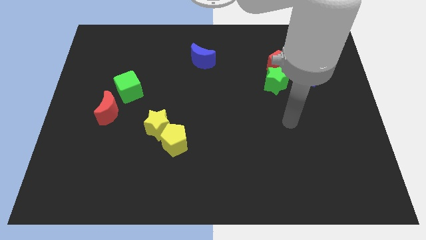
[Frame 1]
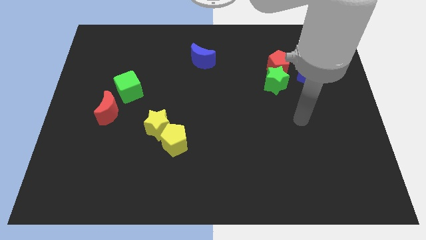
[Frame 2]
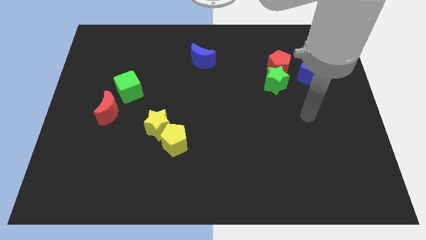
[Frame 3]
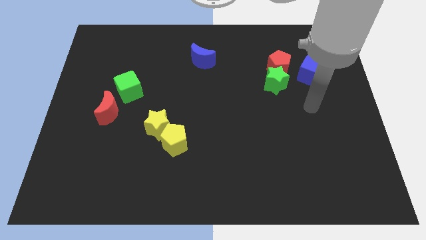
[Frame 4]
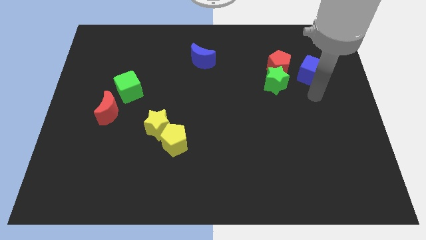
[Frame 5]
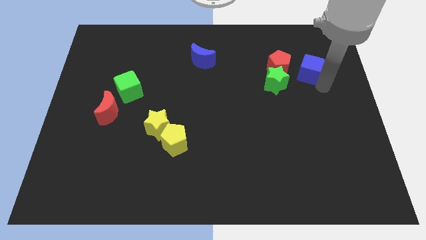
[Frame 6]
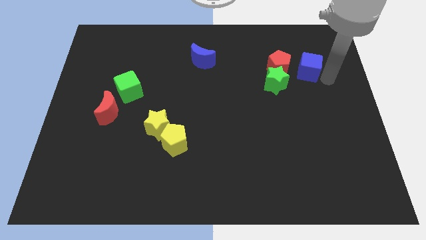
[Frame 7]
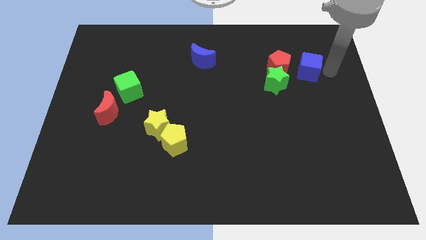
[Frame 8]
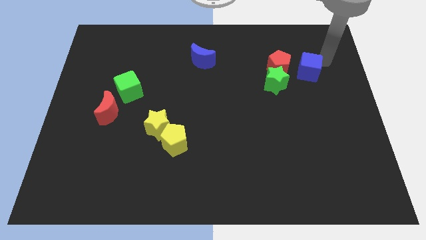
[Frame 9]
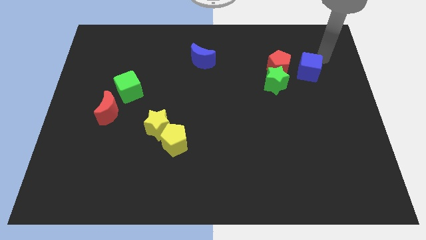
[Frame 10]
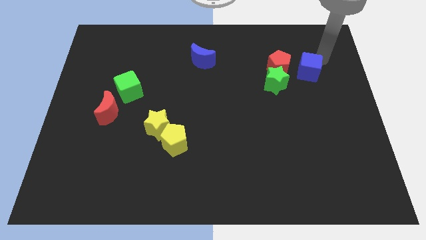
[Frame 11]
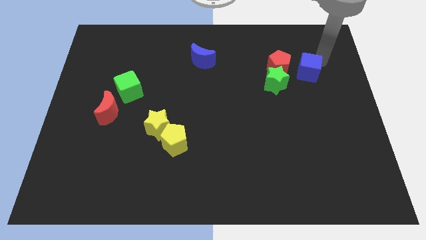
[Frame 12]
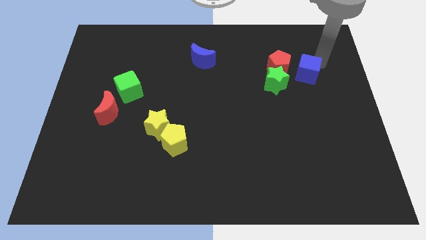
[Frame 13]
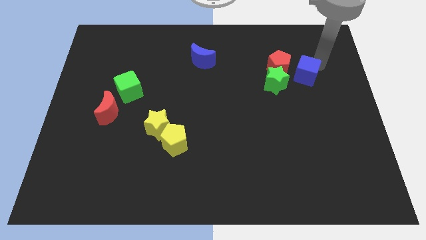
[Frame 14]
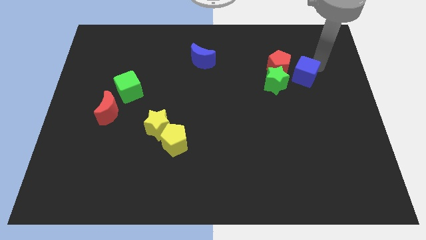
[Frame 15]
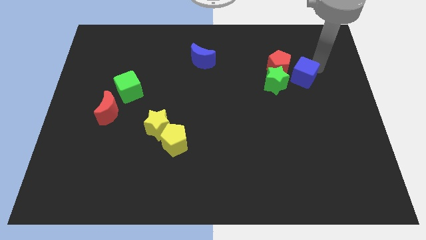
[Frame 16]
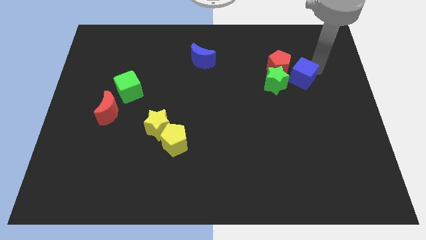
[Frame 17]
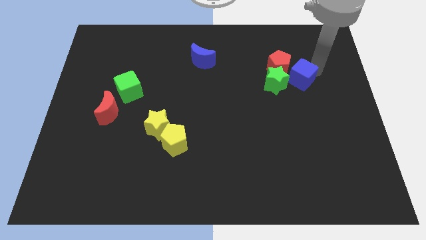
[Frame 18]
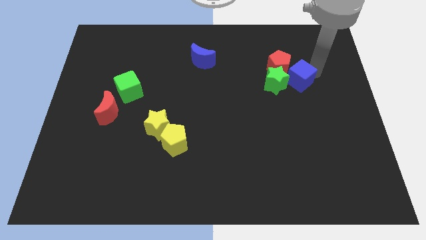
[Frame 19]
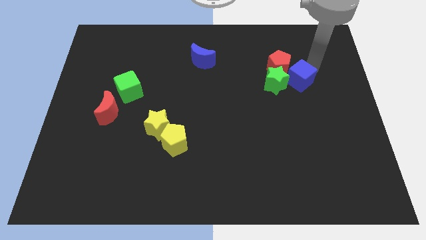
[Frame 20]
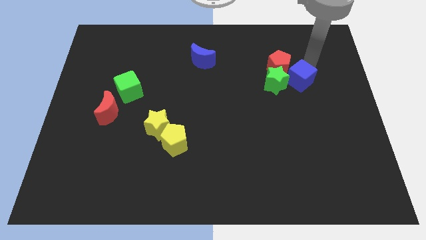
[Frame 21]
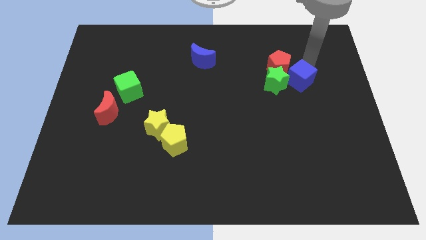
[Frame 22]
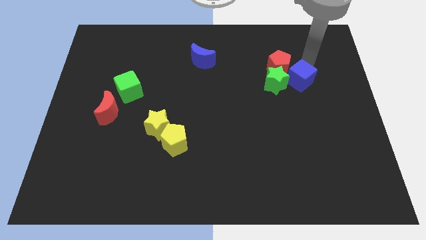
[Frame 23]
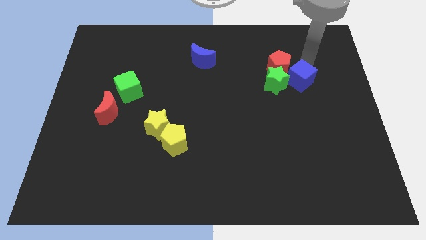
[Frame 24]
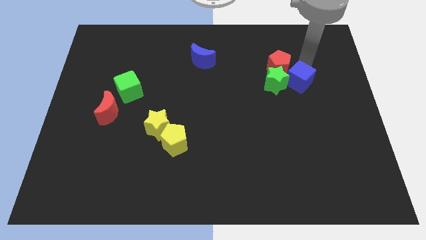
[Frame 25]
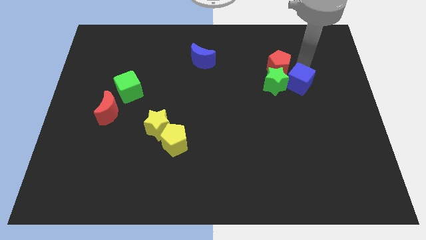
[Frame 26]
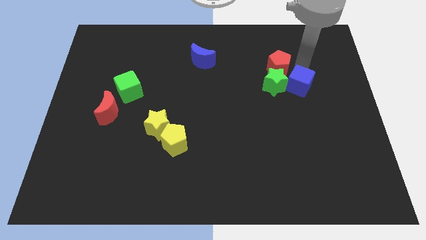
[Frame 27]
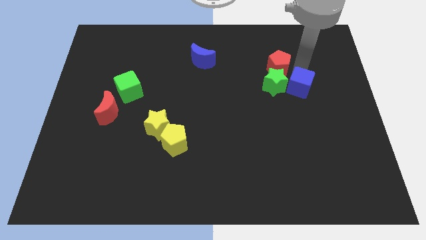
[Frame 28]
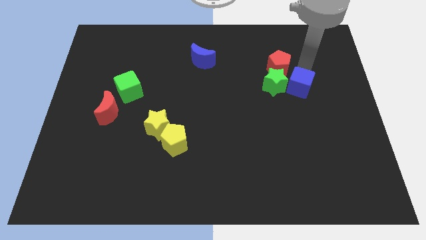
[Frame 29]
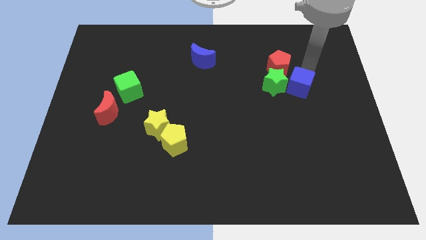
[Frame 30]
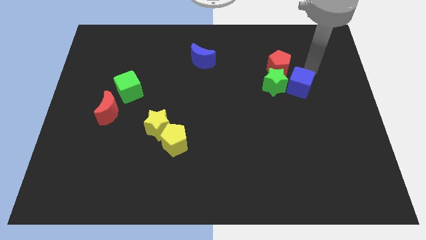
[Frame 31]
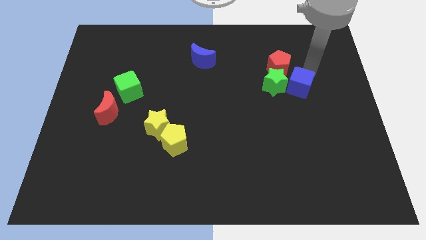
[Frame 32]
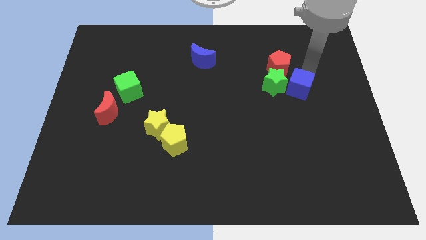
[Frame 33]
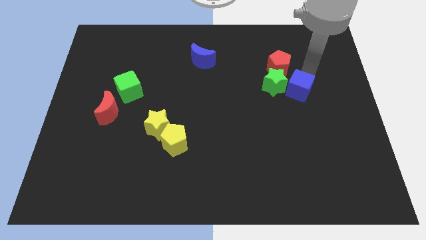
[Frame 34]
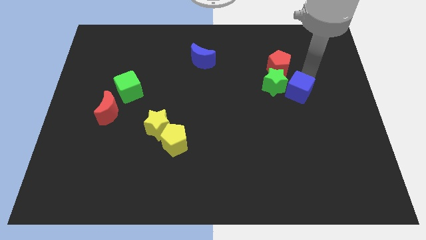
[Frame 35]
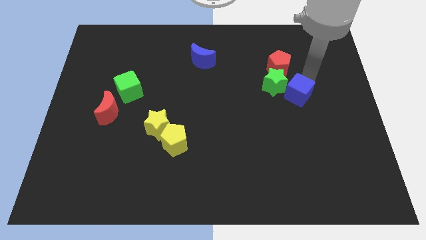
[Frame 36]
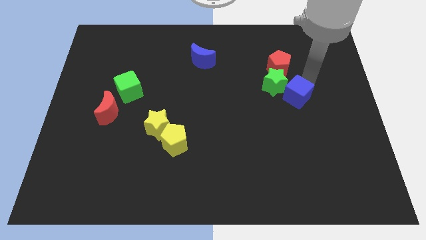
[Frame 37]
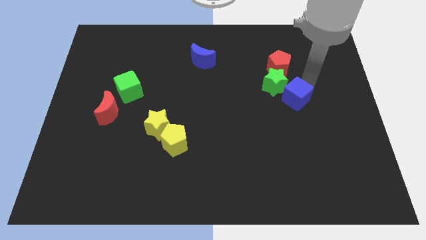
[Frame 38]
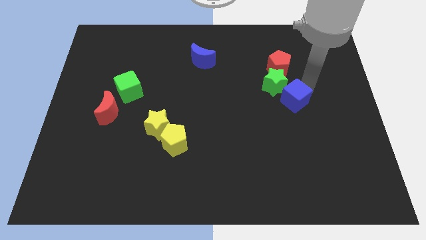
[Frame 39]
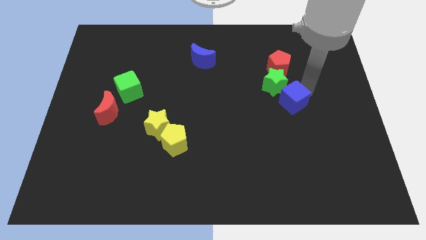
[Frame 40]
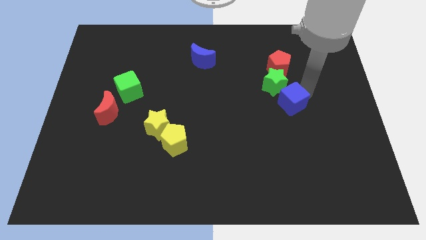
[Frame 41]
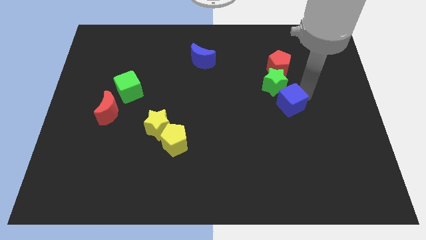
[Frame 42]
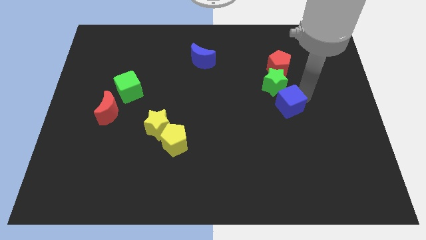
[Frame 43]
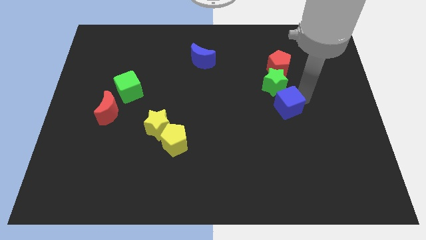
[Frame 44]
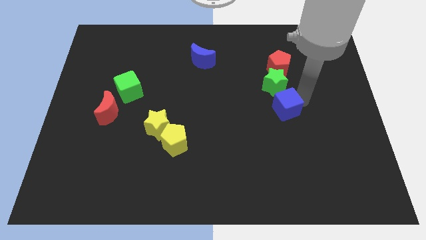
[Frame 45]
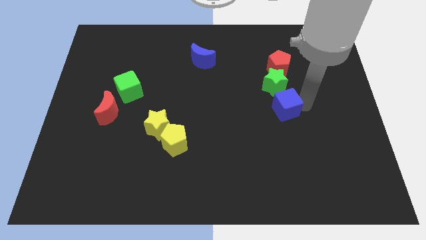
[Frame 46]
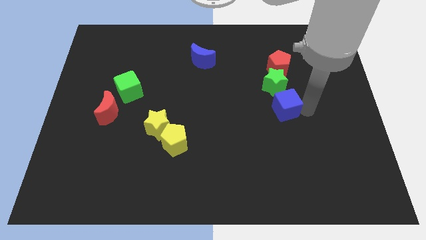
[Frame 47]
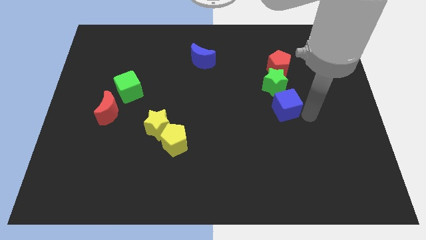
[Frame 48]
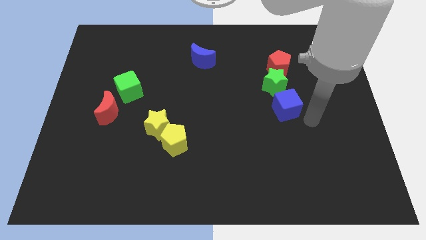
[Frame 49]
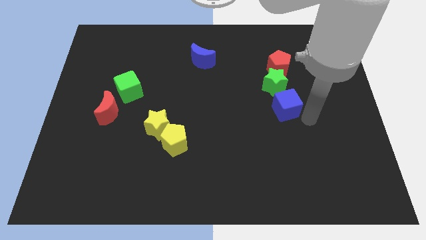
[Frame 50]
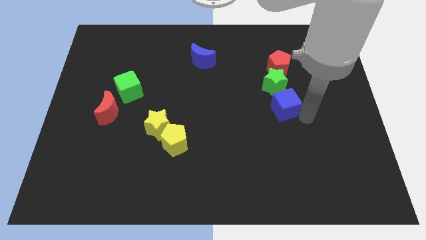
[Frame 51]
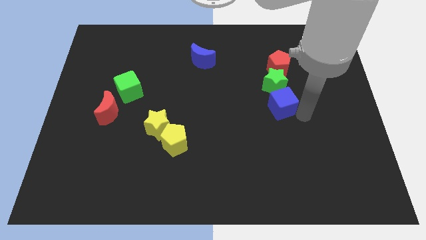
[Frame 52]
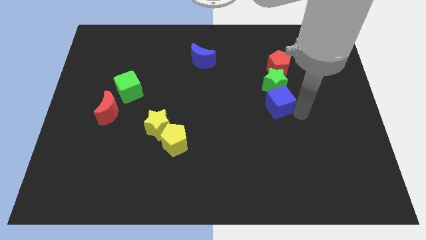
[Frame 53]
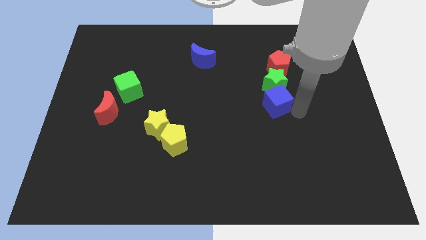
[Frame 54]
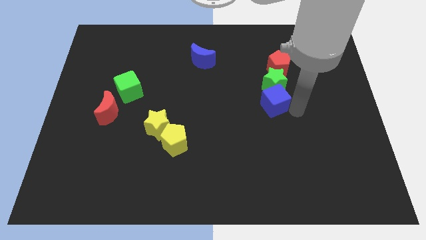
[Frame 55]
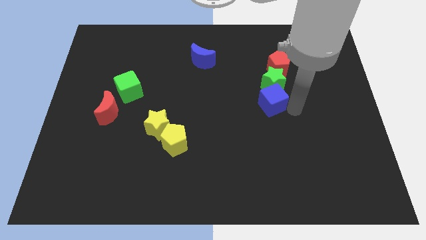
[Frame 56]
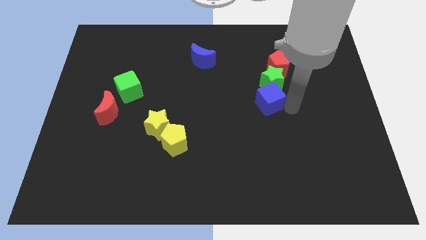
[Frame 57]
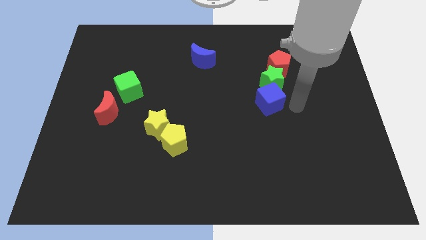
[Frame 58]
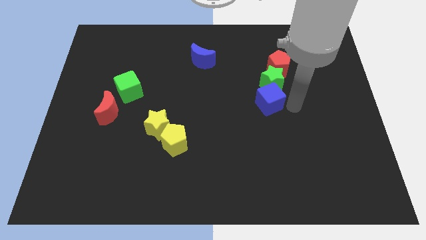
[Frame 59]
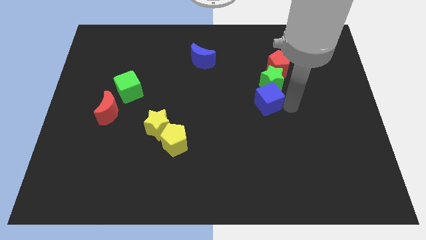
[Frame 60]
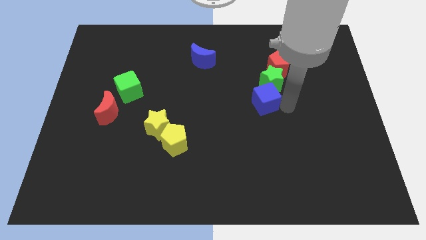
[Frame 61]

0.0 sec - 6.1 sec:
move the blue cube to the middle of the board

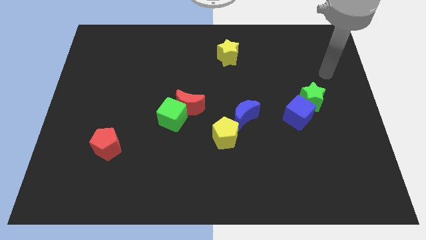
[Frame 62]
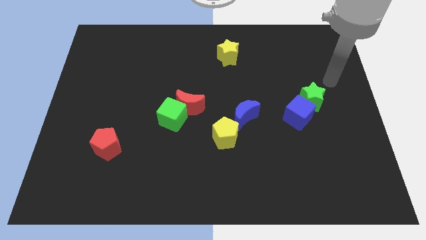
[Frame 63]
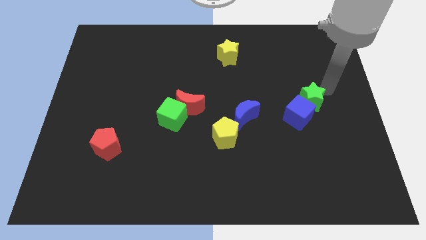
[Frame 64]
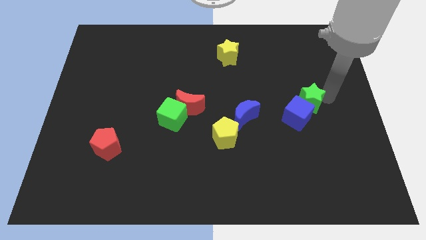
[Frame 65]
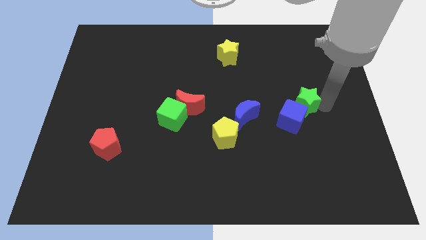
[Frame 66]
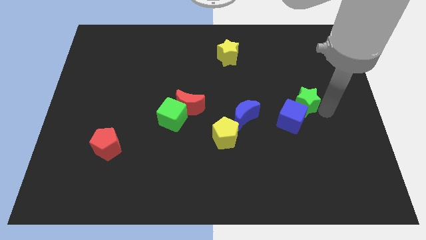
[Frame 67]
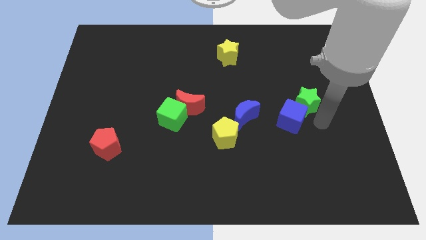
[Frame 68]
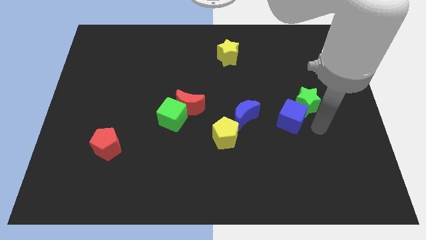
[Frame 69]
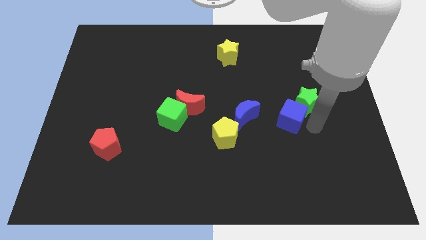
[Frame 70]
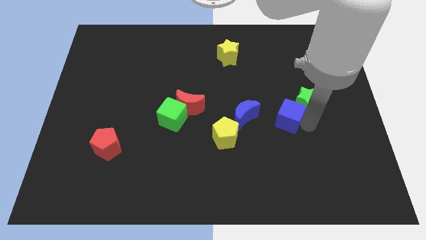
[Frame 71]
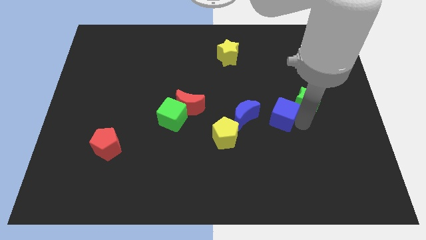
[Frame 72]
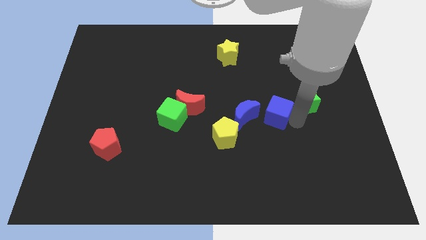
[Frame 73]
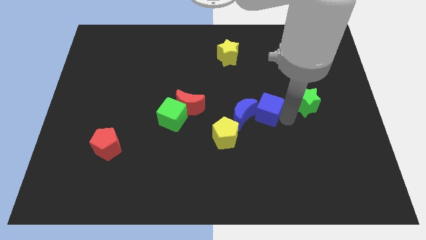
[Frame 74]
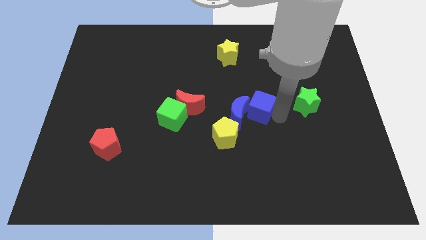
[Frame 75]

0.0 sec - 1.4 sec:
move the blue cube to the middle
